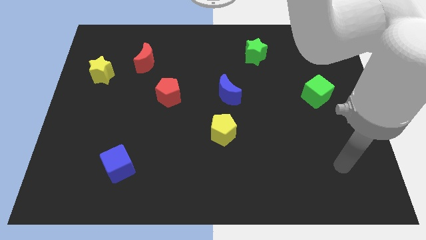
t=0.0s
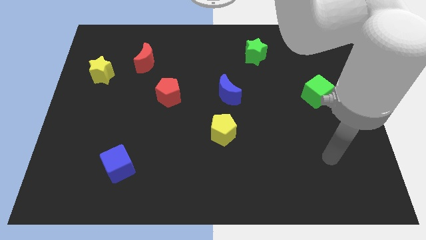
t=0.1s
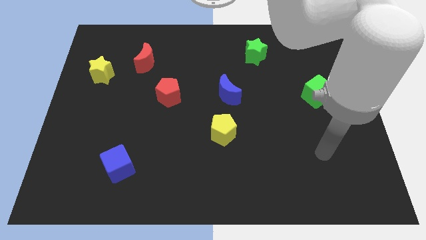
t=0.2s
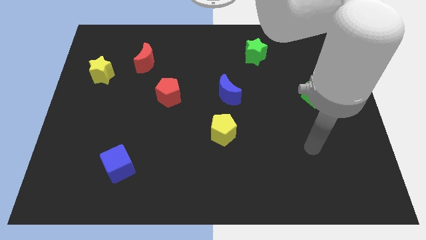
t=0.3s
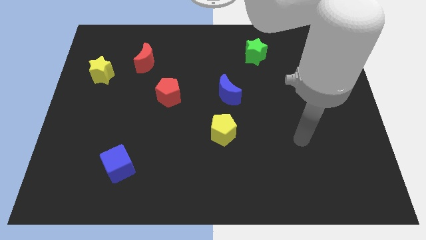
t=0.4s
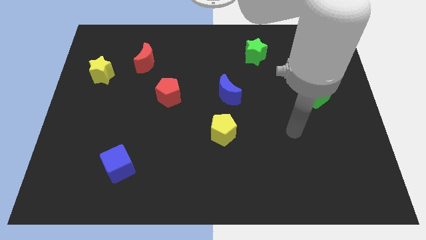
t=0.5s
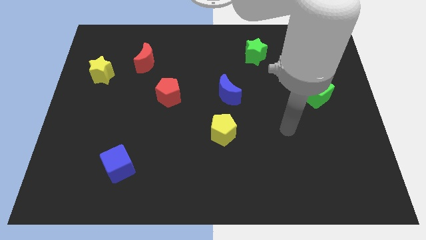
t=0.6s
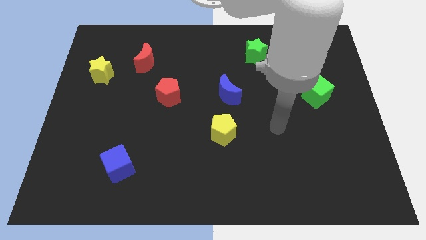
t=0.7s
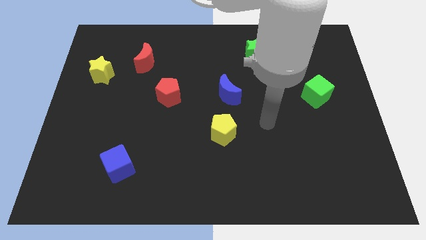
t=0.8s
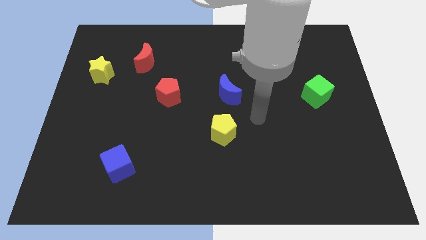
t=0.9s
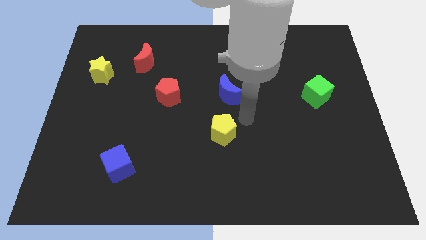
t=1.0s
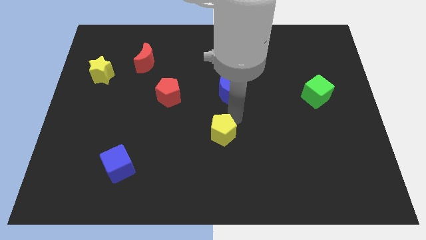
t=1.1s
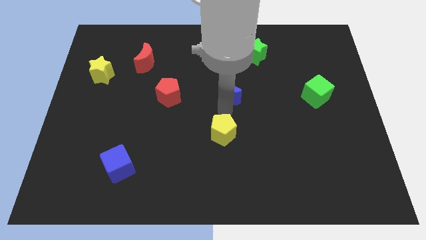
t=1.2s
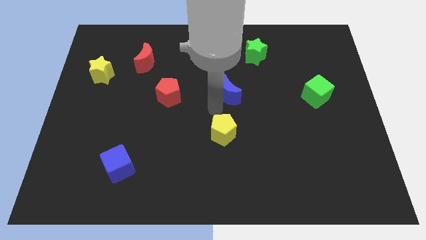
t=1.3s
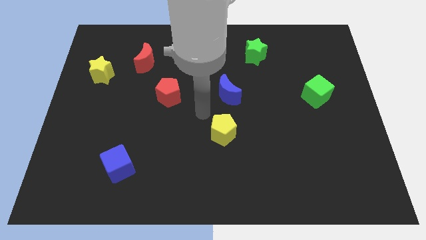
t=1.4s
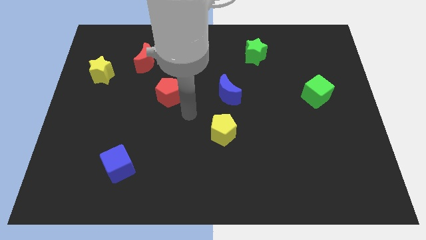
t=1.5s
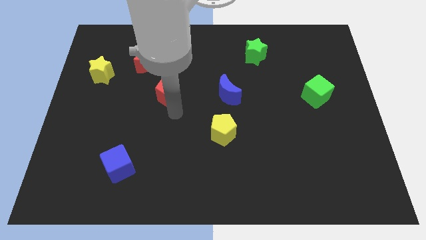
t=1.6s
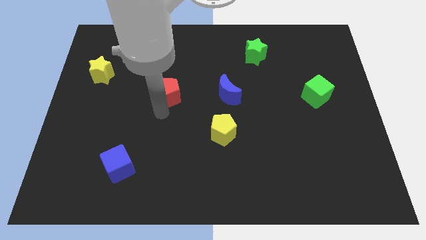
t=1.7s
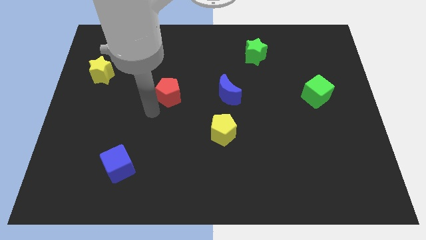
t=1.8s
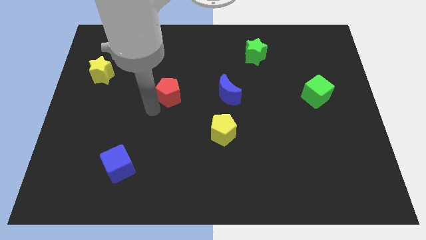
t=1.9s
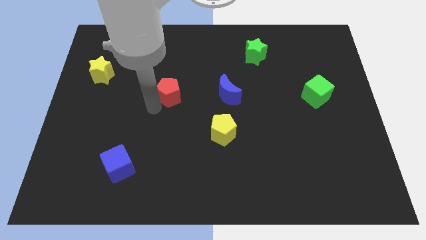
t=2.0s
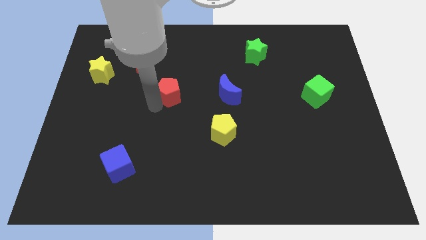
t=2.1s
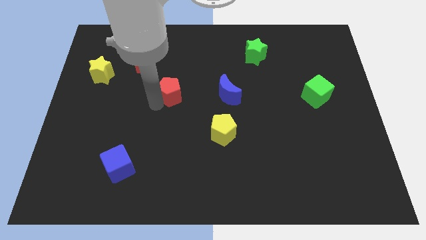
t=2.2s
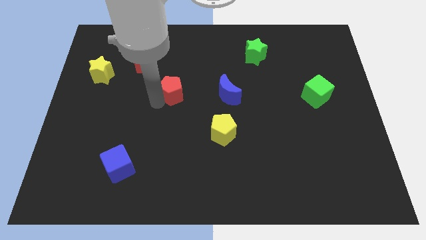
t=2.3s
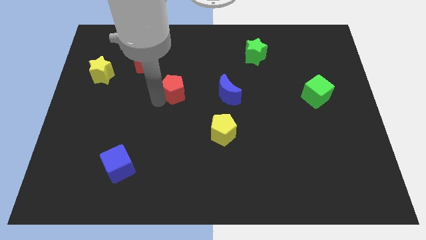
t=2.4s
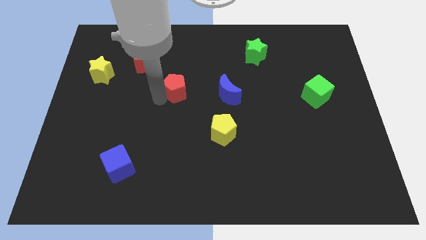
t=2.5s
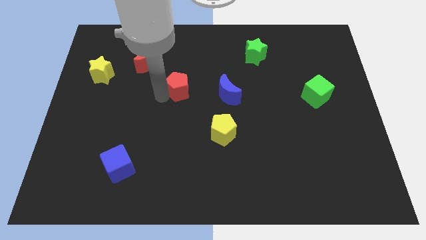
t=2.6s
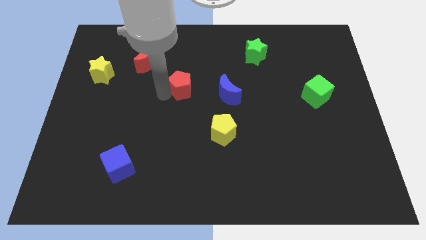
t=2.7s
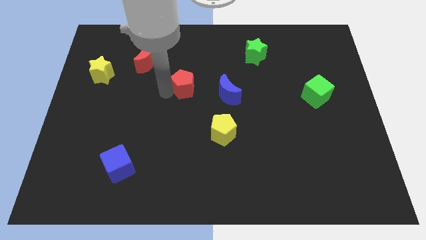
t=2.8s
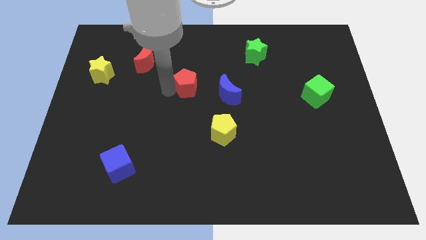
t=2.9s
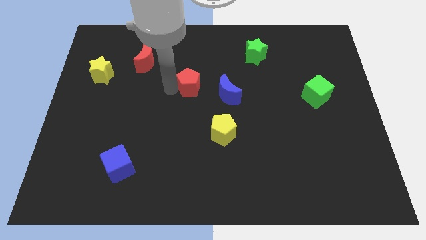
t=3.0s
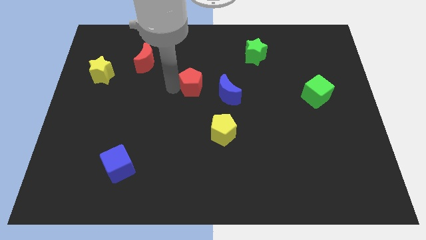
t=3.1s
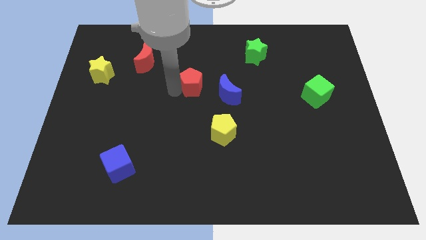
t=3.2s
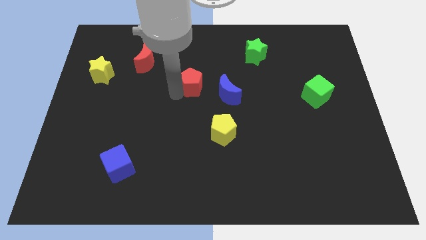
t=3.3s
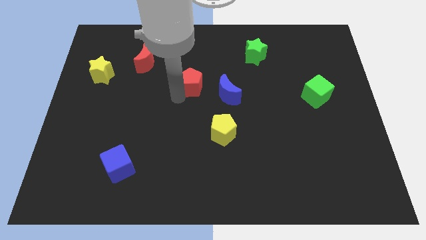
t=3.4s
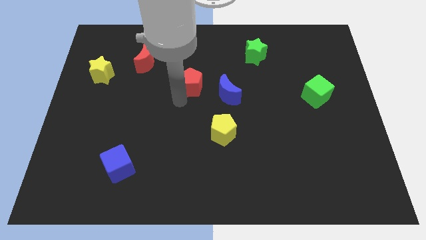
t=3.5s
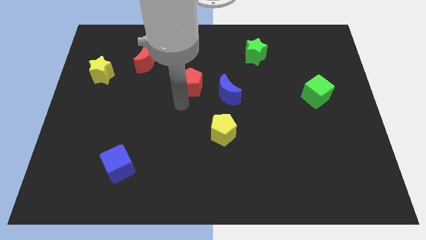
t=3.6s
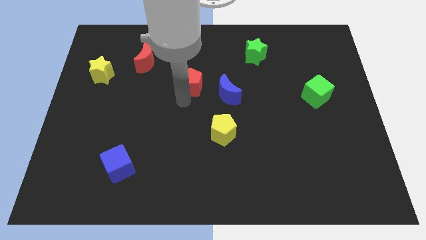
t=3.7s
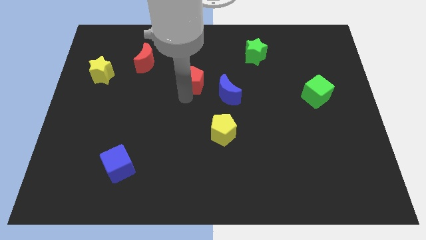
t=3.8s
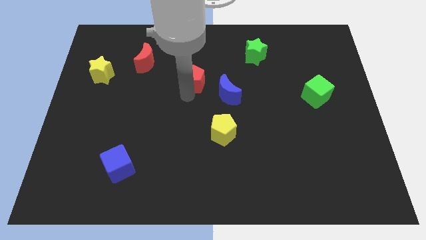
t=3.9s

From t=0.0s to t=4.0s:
slightly slide the red pentagon diagonally upwards and right

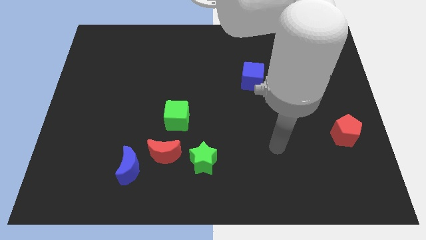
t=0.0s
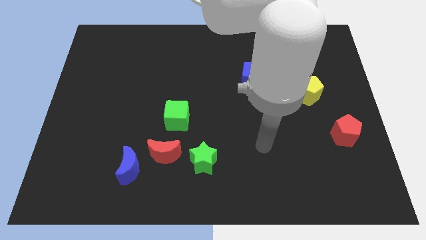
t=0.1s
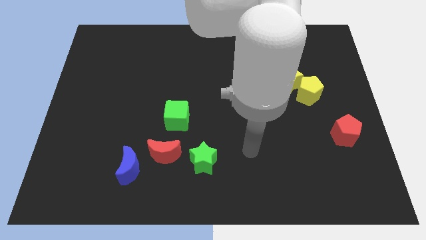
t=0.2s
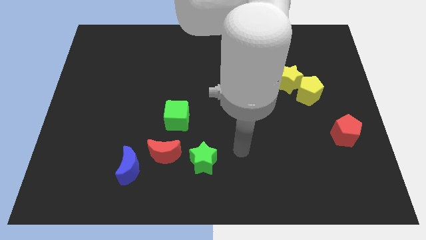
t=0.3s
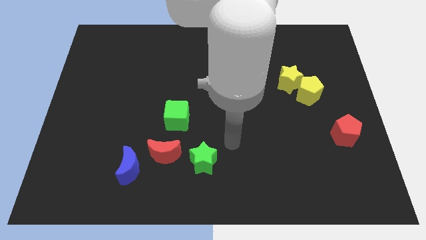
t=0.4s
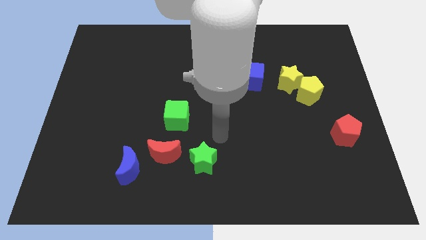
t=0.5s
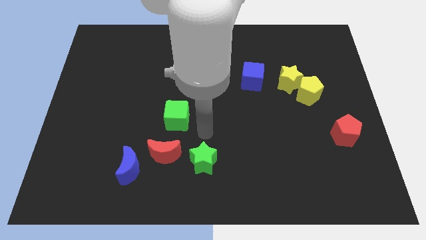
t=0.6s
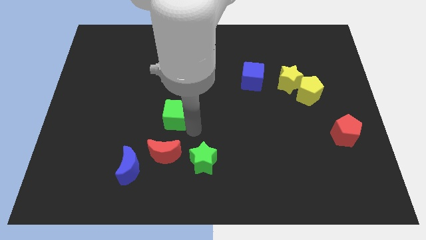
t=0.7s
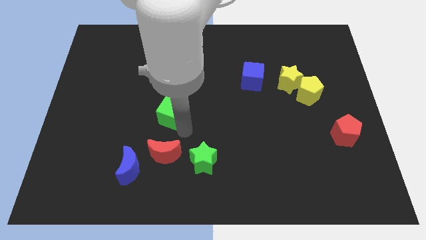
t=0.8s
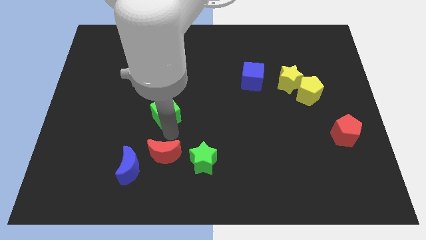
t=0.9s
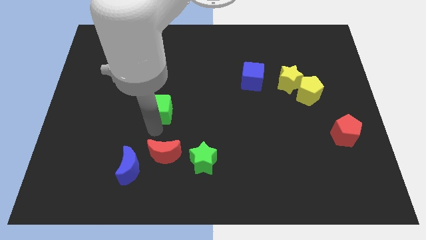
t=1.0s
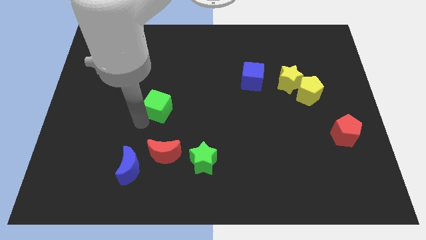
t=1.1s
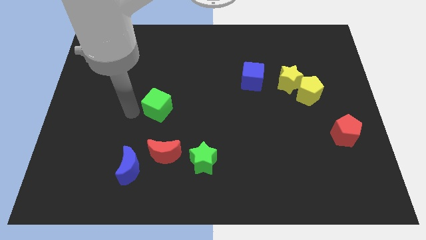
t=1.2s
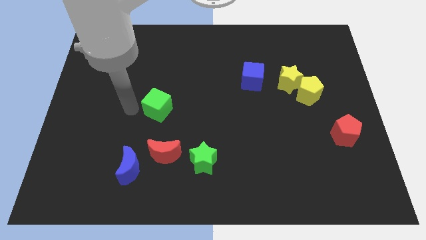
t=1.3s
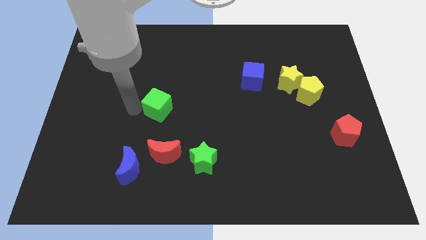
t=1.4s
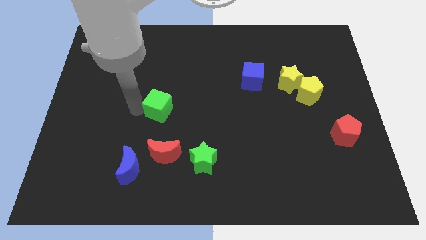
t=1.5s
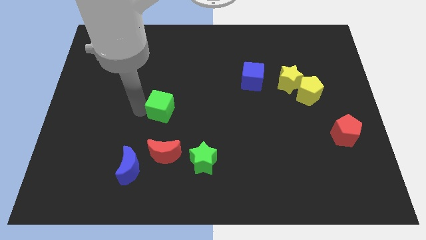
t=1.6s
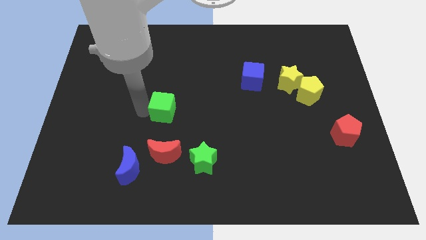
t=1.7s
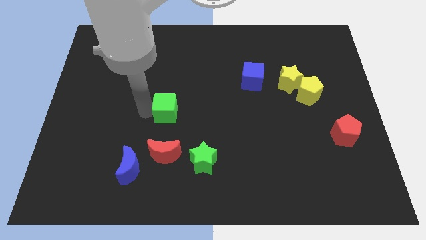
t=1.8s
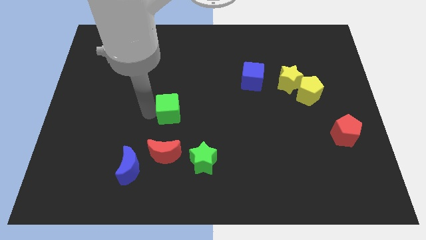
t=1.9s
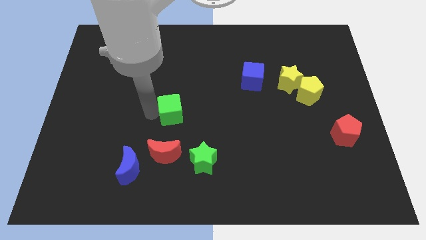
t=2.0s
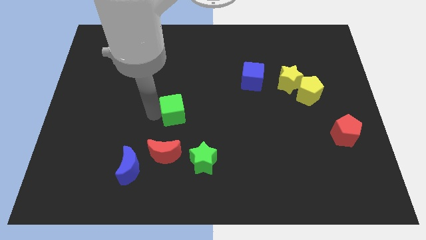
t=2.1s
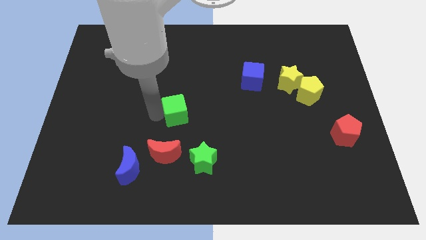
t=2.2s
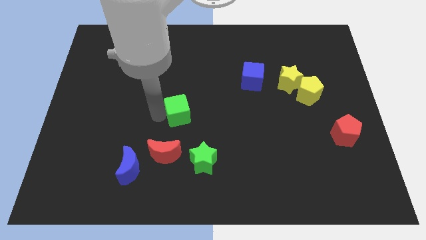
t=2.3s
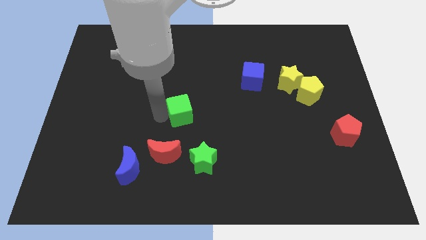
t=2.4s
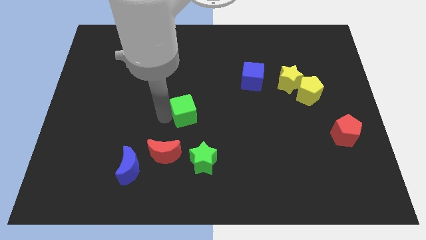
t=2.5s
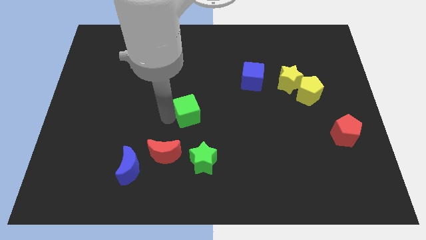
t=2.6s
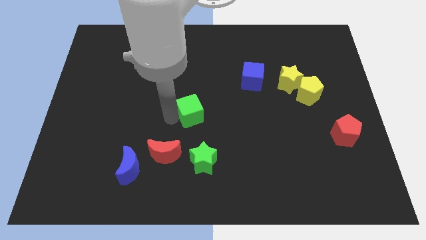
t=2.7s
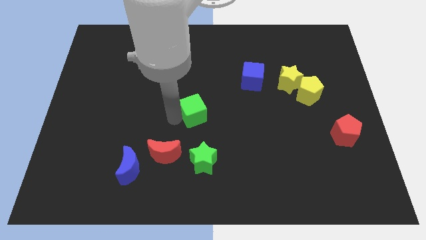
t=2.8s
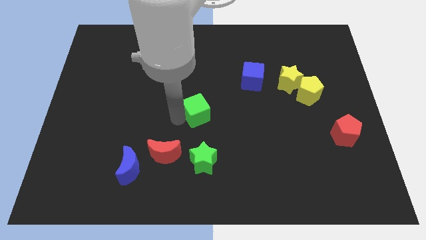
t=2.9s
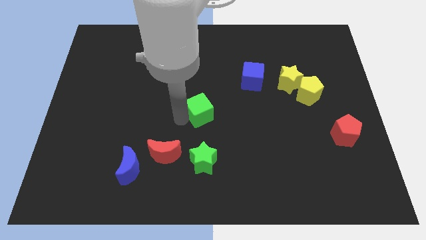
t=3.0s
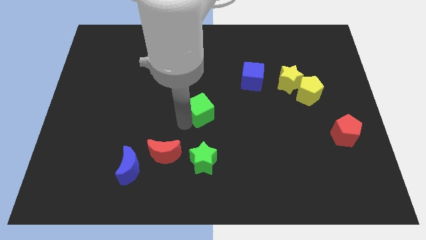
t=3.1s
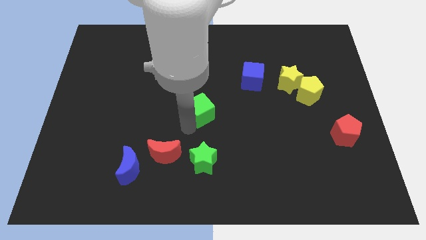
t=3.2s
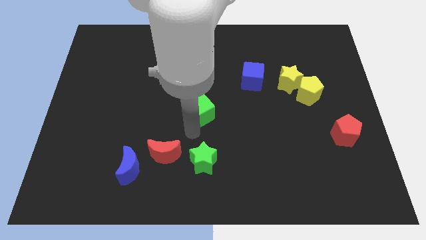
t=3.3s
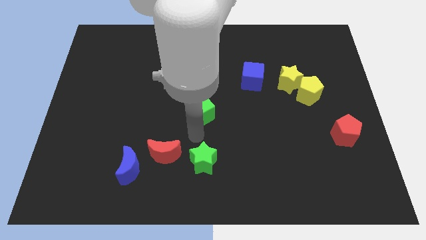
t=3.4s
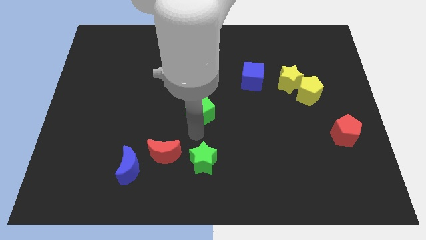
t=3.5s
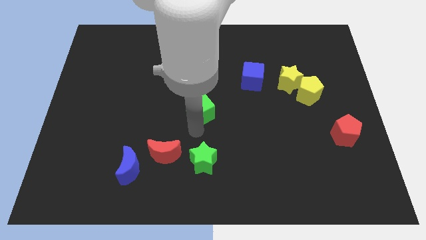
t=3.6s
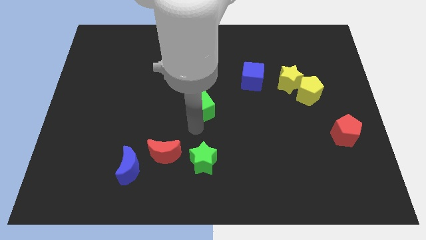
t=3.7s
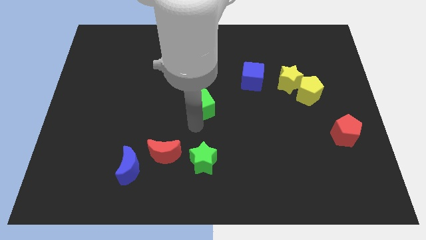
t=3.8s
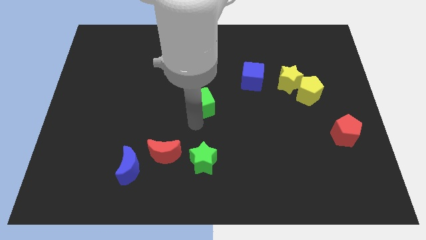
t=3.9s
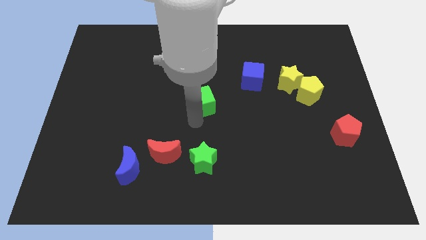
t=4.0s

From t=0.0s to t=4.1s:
slide the green cube a little upwards and then right

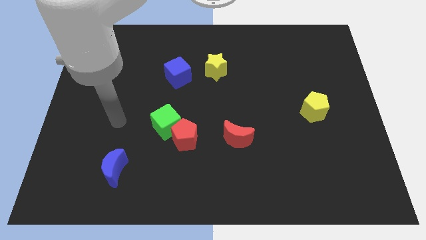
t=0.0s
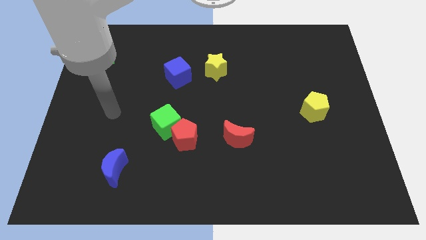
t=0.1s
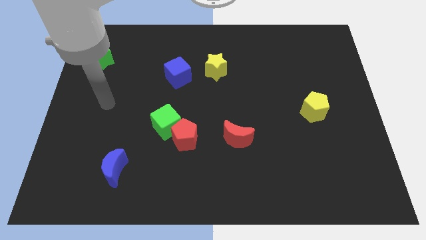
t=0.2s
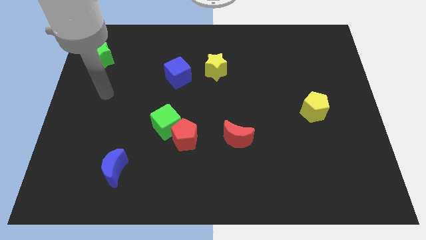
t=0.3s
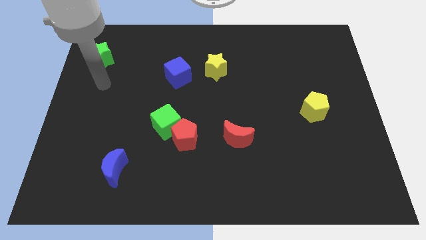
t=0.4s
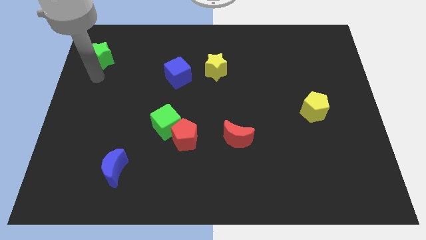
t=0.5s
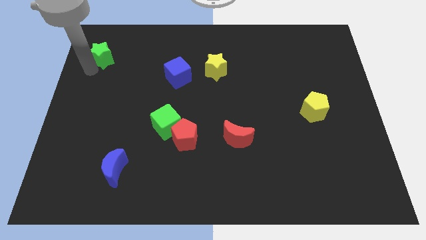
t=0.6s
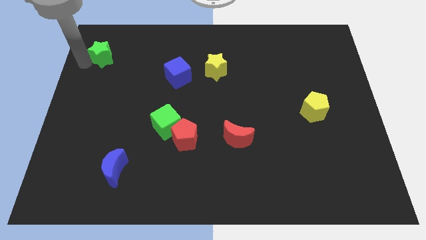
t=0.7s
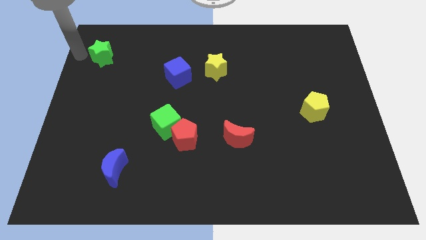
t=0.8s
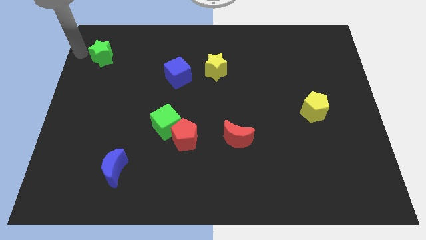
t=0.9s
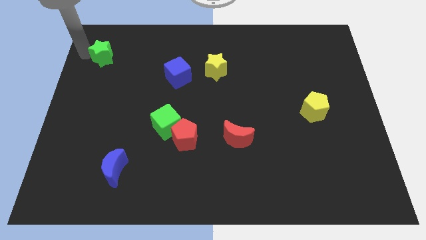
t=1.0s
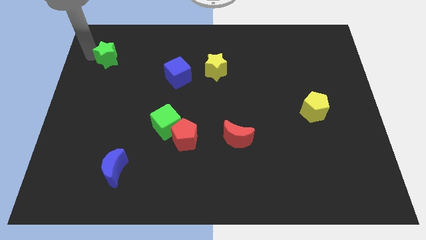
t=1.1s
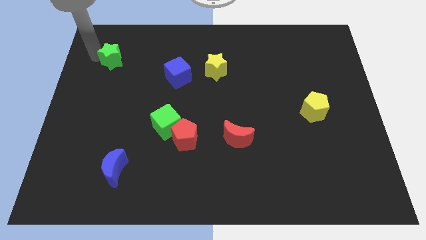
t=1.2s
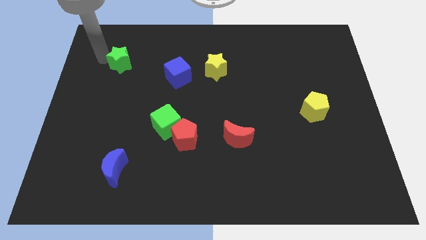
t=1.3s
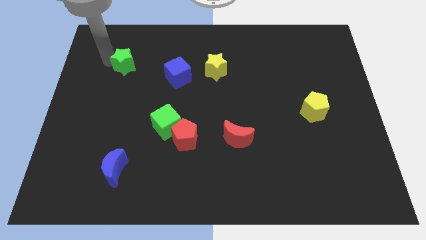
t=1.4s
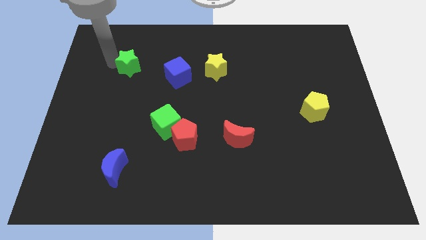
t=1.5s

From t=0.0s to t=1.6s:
slide the green star a little bit to the right
